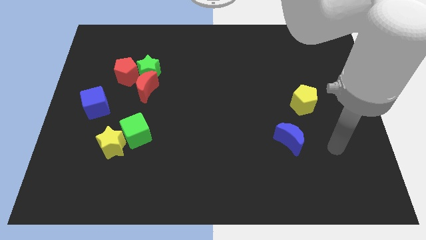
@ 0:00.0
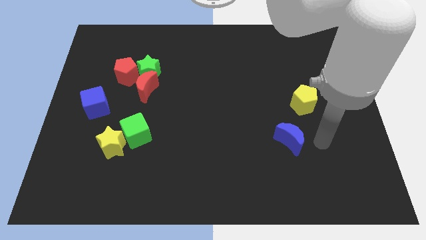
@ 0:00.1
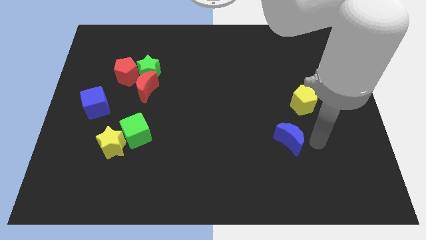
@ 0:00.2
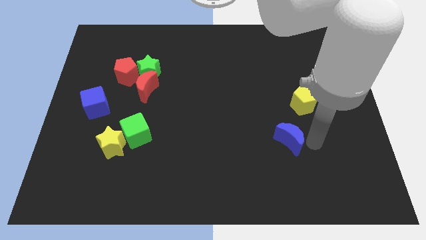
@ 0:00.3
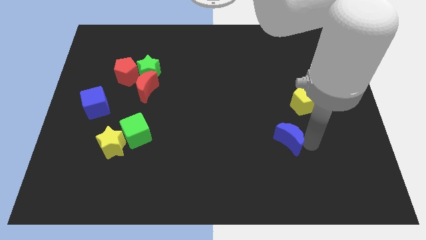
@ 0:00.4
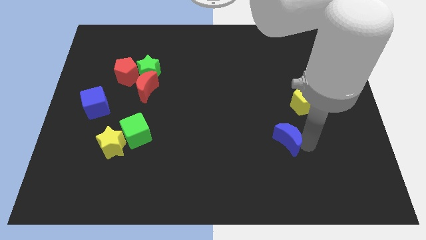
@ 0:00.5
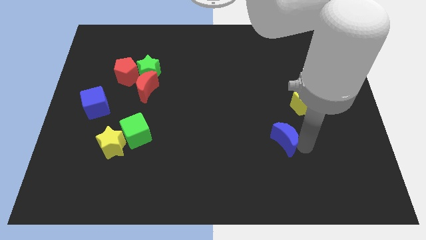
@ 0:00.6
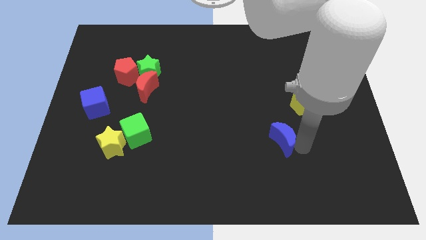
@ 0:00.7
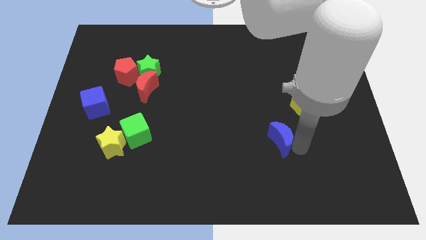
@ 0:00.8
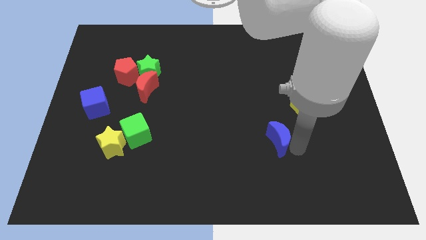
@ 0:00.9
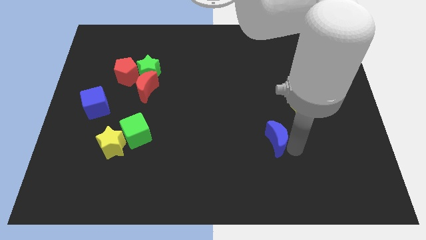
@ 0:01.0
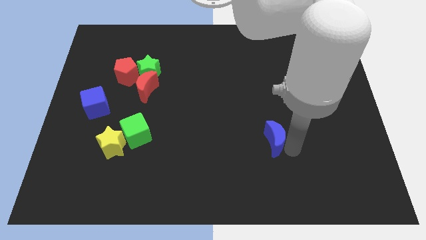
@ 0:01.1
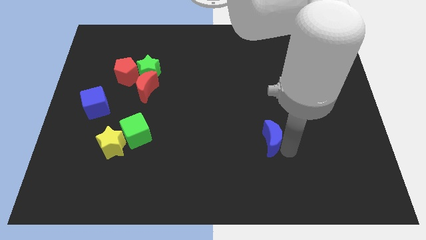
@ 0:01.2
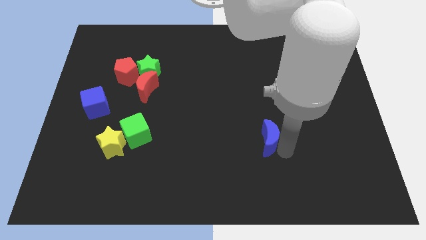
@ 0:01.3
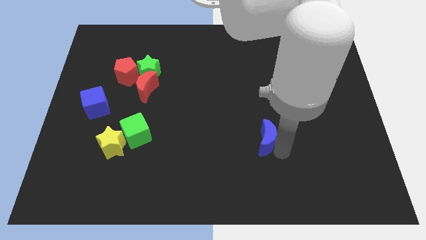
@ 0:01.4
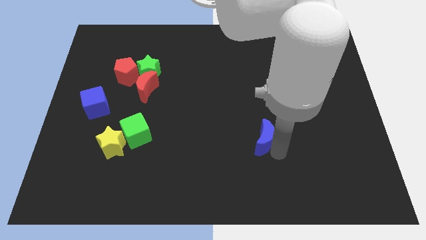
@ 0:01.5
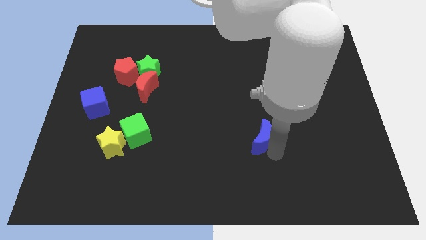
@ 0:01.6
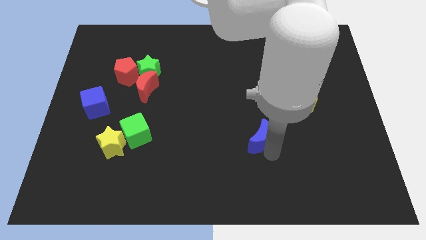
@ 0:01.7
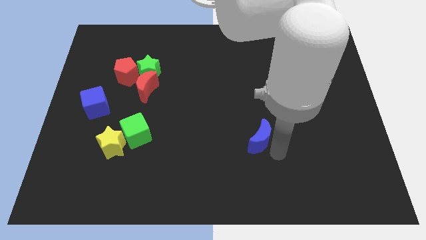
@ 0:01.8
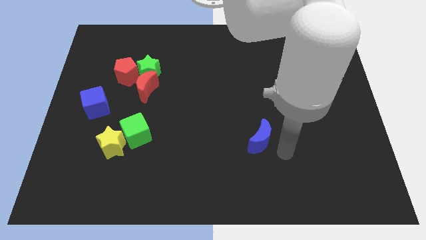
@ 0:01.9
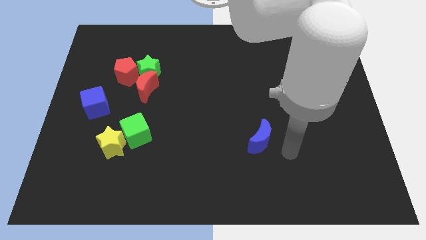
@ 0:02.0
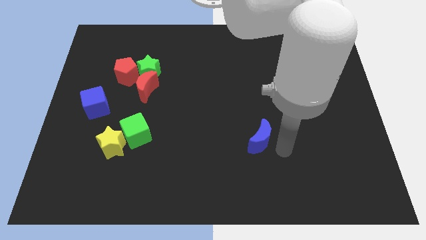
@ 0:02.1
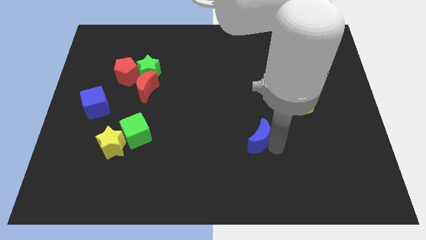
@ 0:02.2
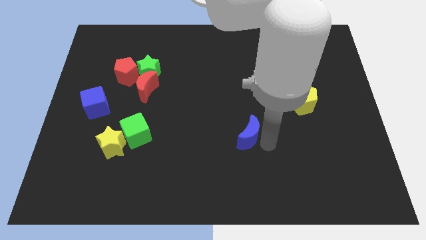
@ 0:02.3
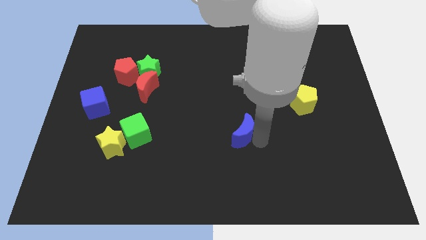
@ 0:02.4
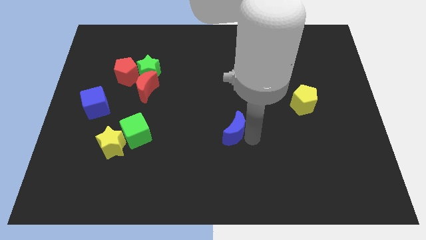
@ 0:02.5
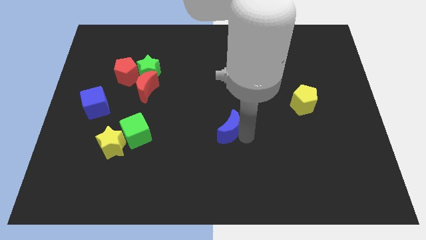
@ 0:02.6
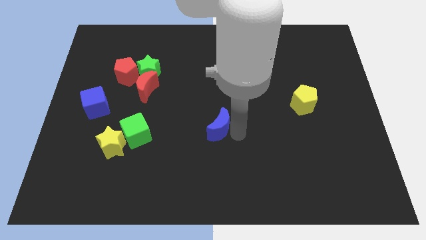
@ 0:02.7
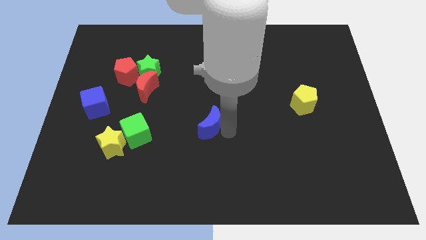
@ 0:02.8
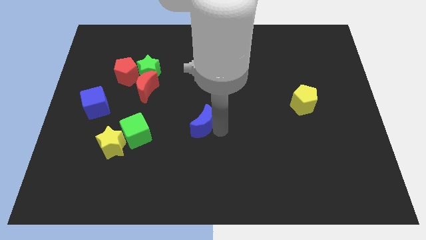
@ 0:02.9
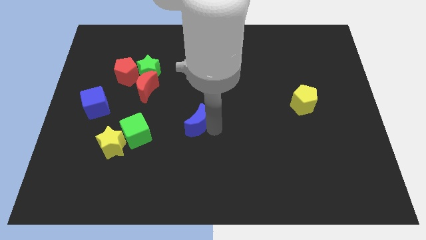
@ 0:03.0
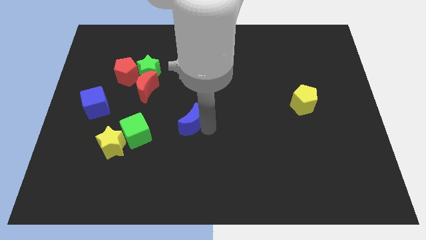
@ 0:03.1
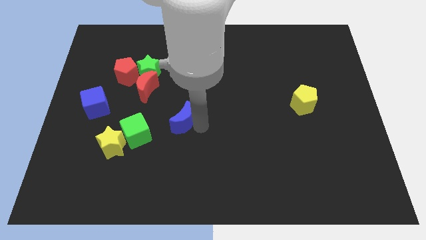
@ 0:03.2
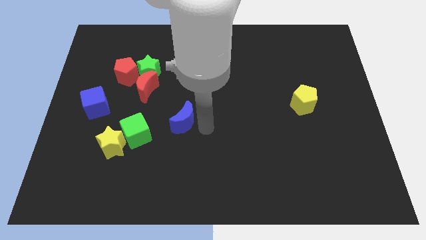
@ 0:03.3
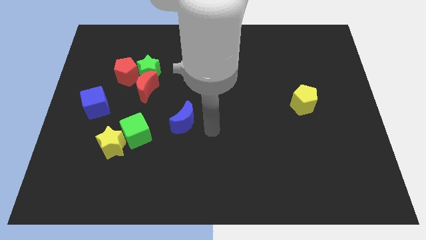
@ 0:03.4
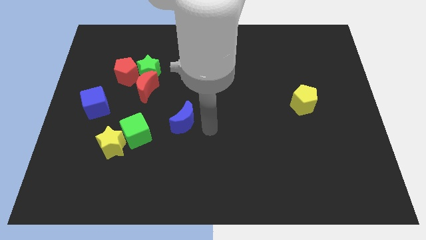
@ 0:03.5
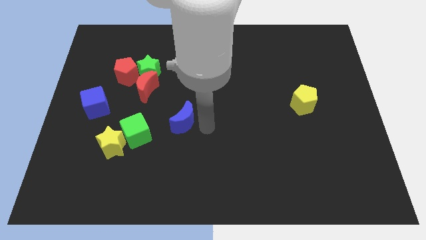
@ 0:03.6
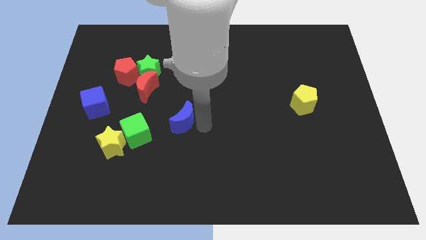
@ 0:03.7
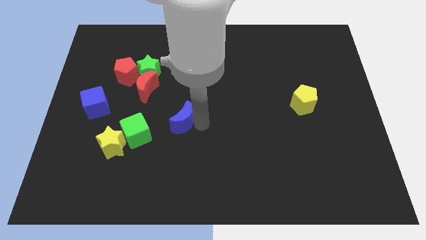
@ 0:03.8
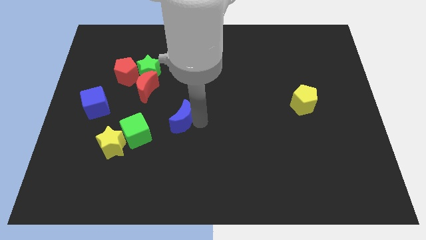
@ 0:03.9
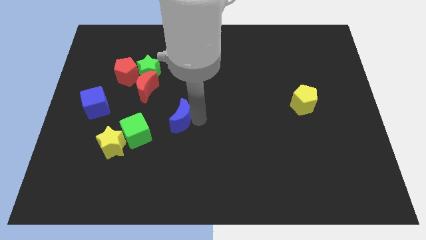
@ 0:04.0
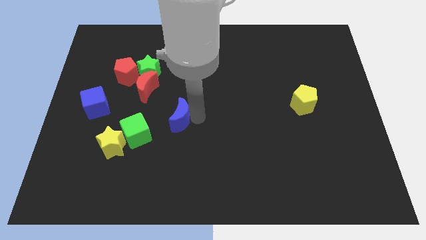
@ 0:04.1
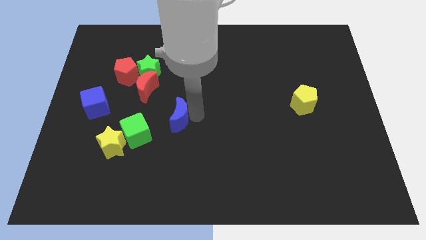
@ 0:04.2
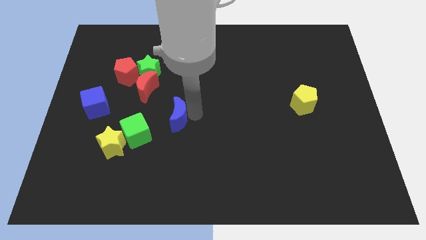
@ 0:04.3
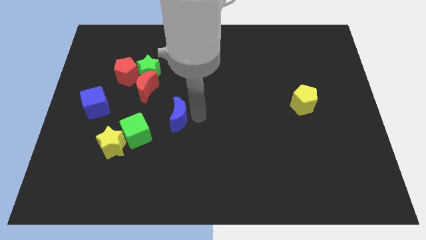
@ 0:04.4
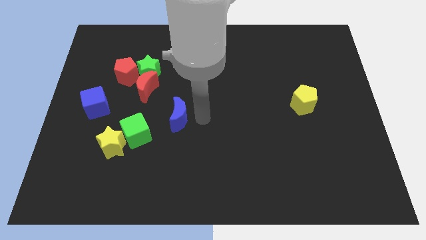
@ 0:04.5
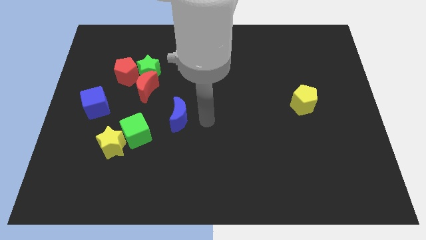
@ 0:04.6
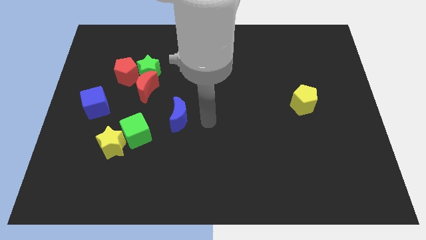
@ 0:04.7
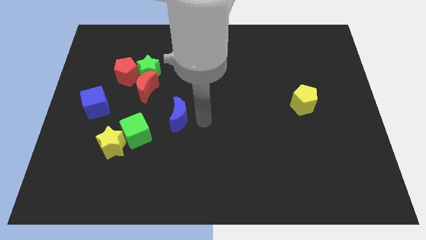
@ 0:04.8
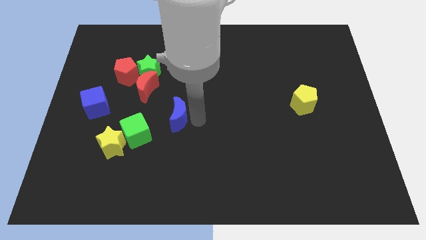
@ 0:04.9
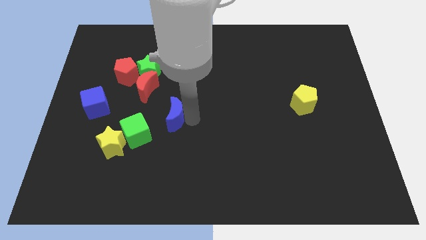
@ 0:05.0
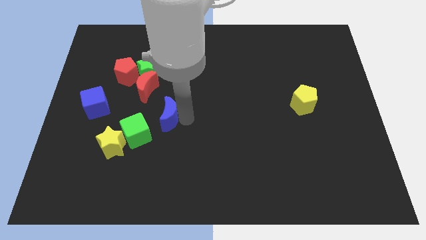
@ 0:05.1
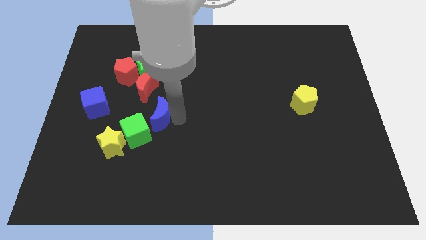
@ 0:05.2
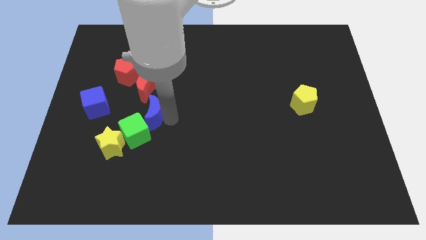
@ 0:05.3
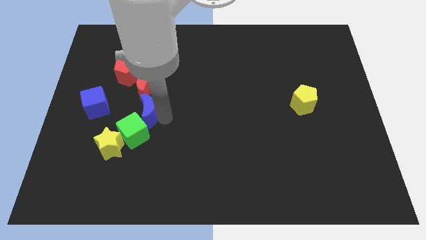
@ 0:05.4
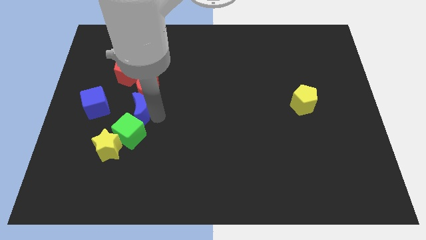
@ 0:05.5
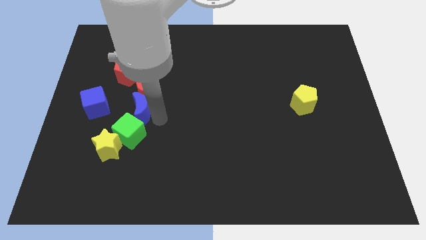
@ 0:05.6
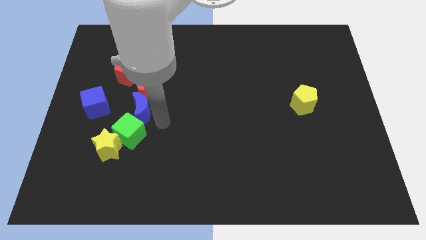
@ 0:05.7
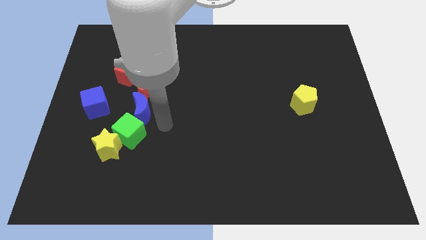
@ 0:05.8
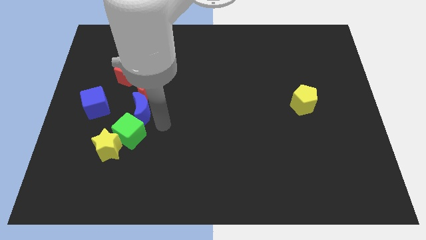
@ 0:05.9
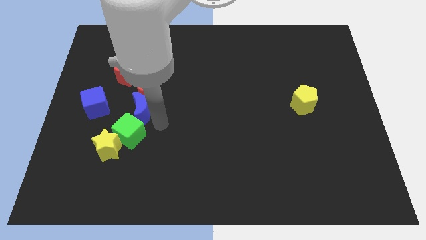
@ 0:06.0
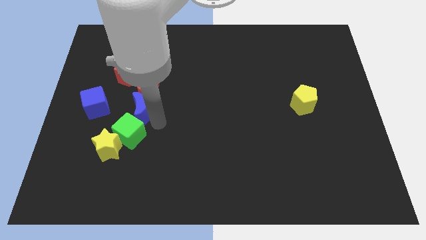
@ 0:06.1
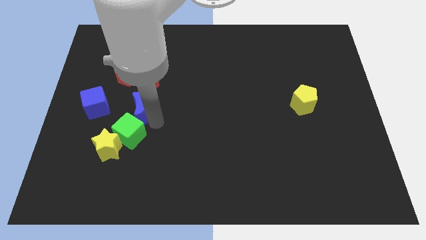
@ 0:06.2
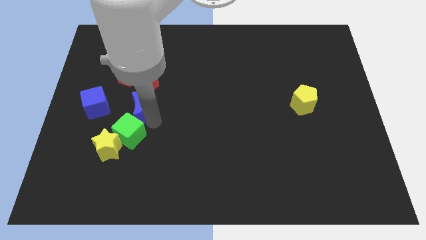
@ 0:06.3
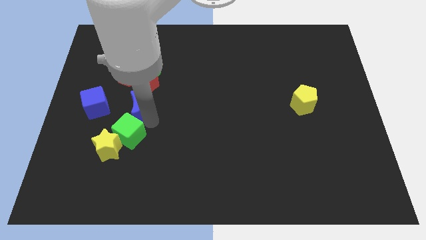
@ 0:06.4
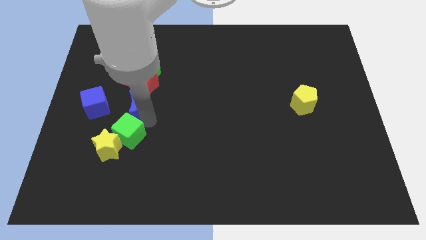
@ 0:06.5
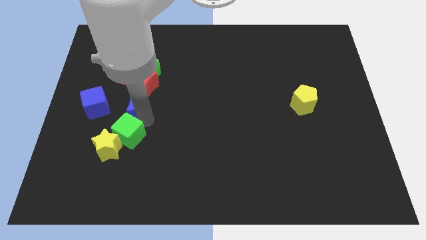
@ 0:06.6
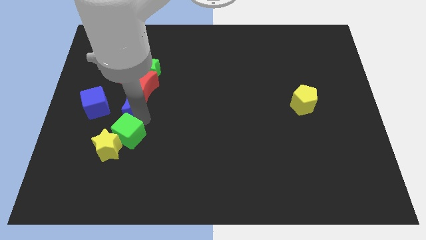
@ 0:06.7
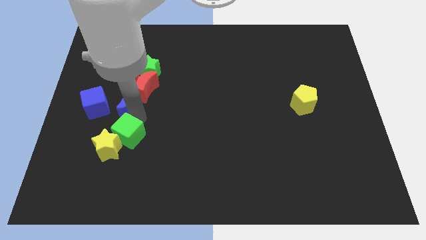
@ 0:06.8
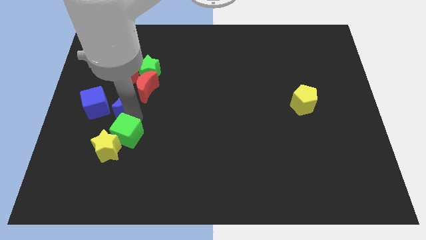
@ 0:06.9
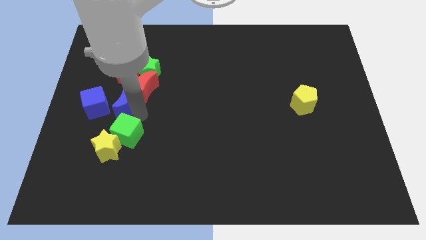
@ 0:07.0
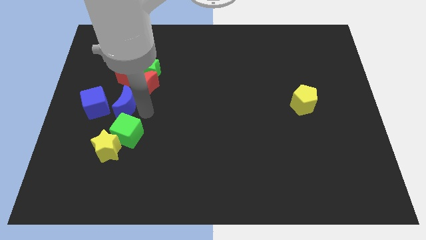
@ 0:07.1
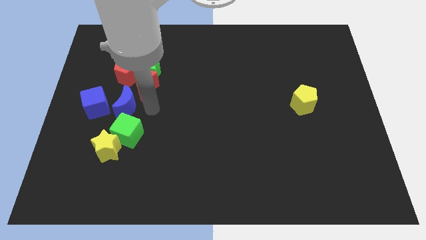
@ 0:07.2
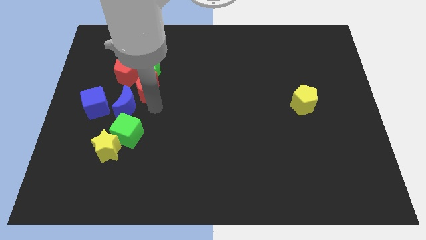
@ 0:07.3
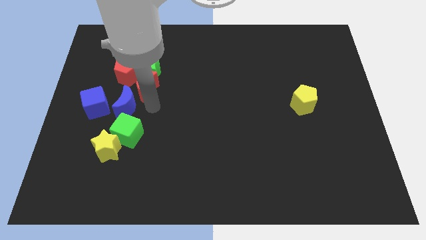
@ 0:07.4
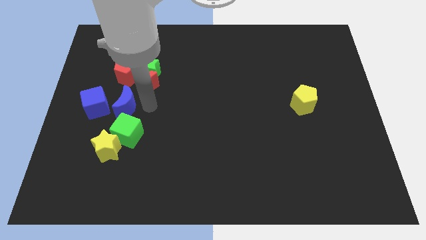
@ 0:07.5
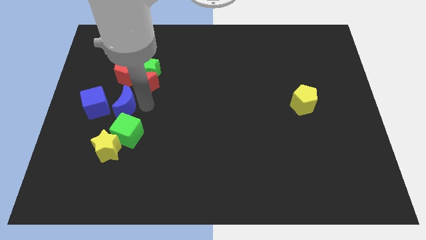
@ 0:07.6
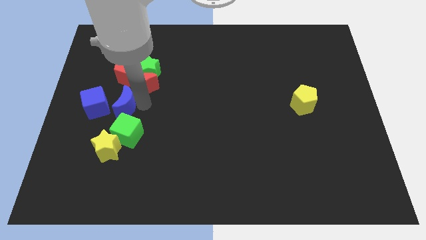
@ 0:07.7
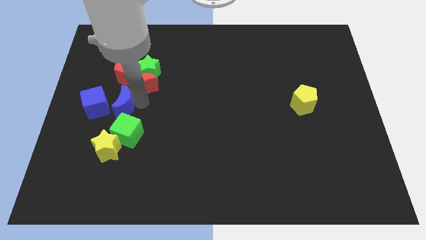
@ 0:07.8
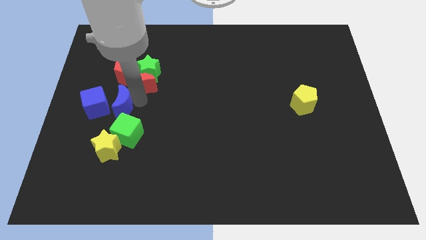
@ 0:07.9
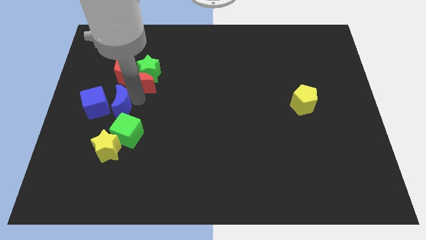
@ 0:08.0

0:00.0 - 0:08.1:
slide the blue moon towards the blue cube
